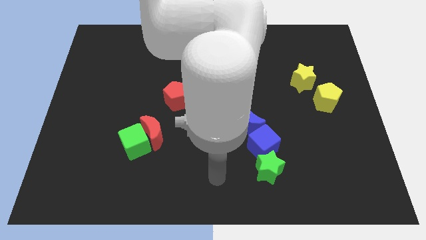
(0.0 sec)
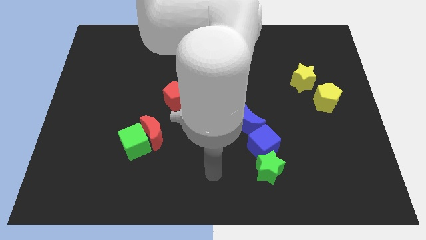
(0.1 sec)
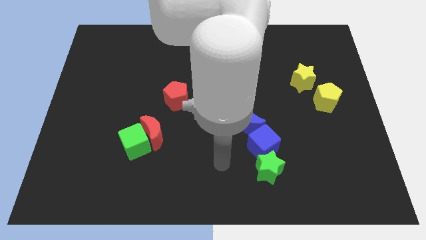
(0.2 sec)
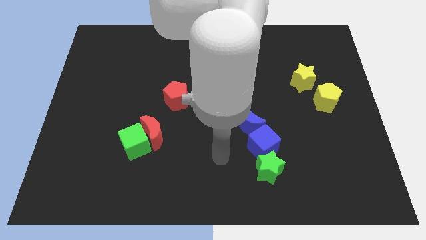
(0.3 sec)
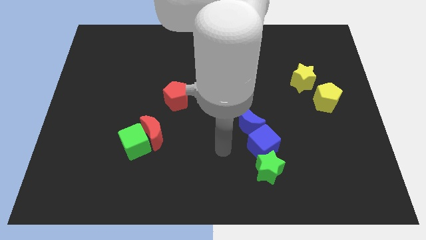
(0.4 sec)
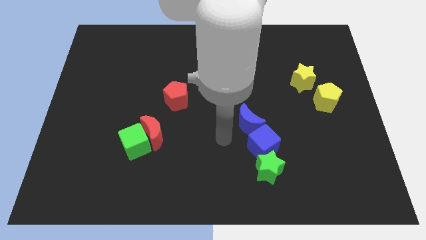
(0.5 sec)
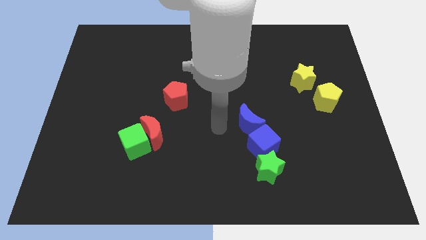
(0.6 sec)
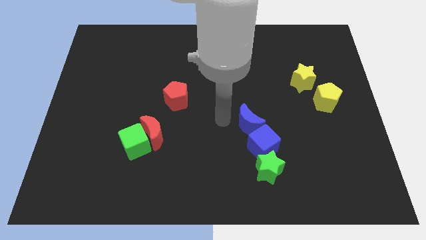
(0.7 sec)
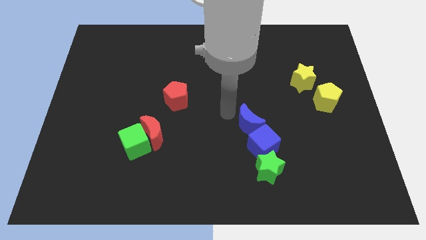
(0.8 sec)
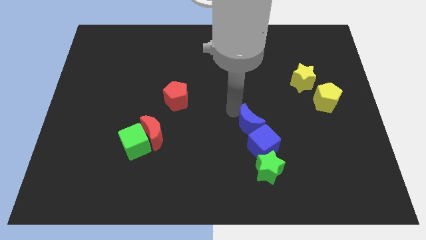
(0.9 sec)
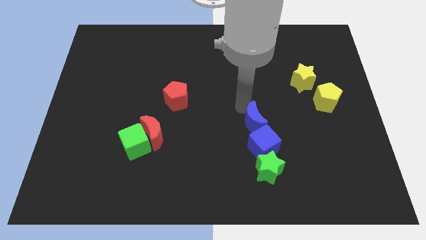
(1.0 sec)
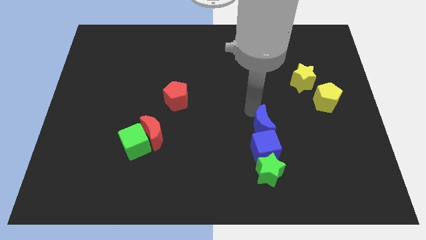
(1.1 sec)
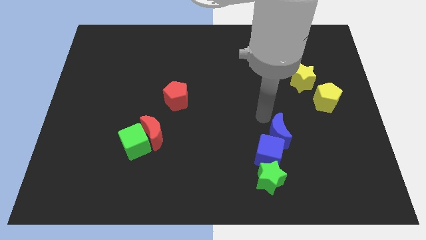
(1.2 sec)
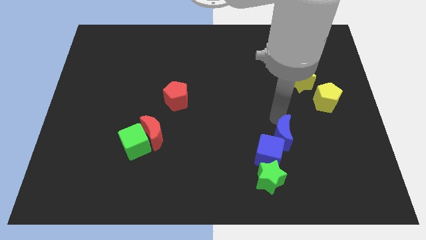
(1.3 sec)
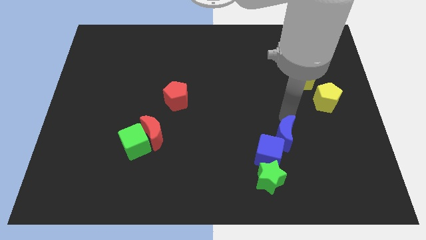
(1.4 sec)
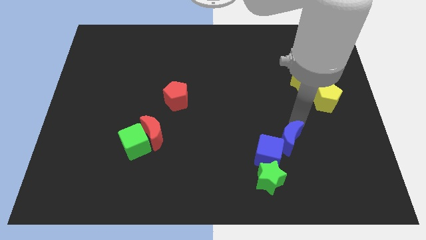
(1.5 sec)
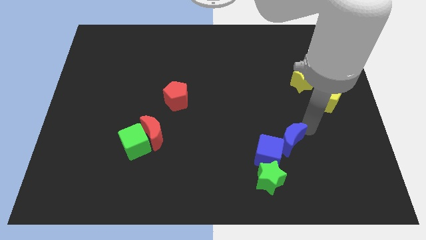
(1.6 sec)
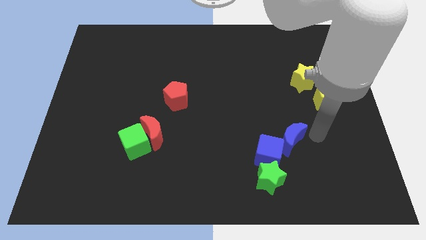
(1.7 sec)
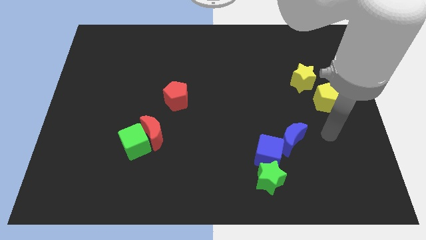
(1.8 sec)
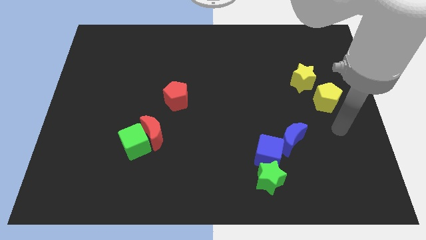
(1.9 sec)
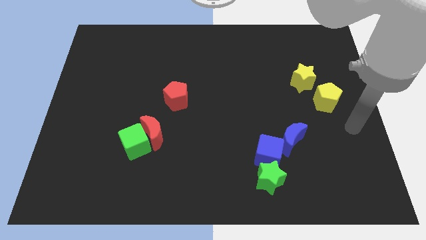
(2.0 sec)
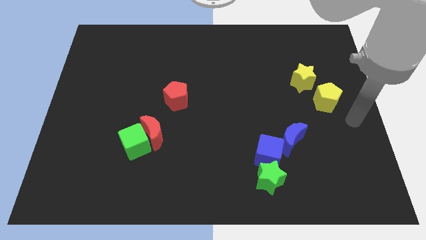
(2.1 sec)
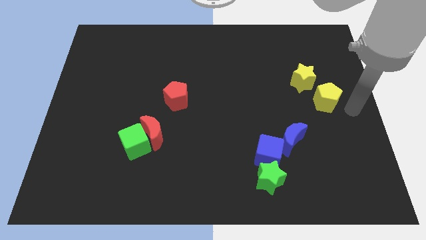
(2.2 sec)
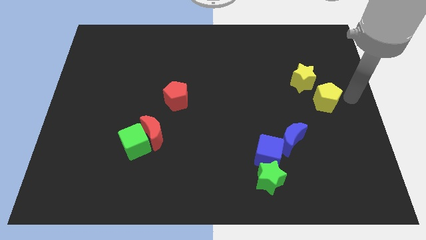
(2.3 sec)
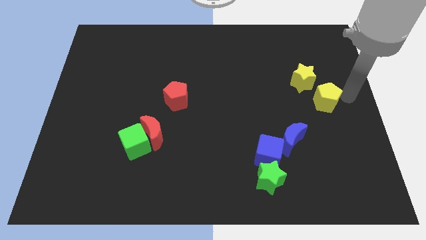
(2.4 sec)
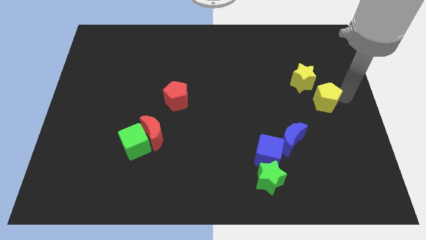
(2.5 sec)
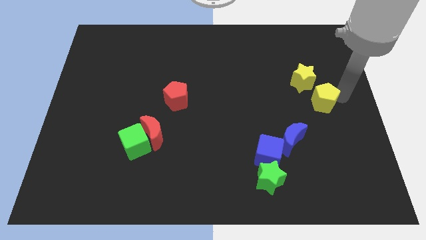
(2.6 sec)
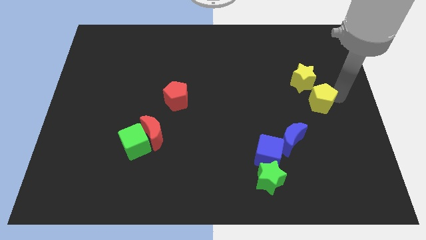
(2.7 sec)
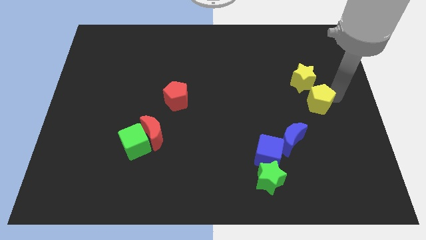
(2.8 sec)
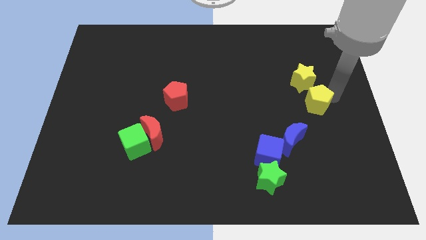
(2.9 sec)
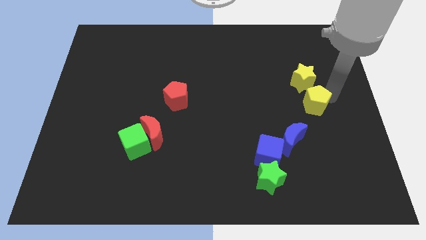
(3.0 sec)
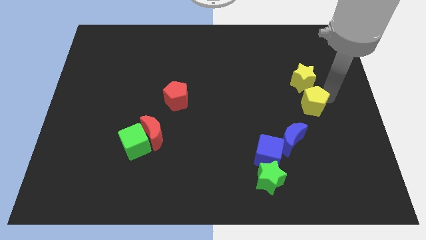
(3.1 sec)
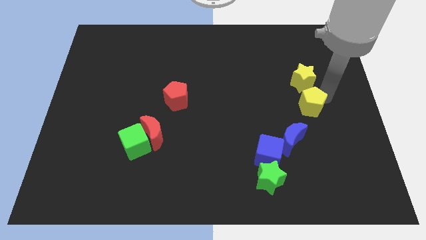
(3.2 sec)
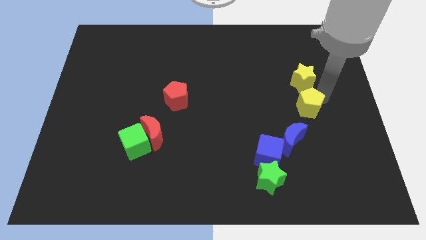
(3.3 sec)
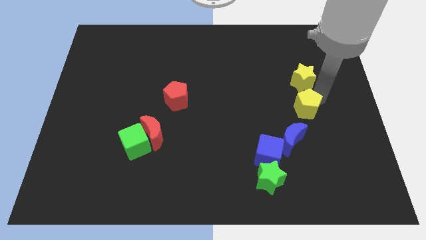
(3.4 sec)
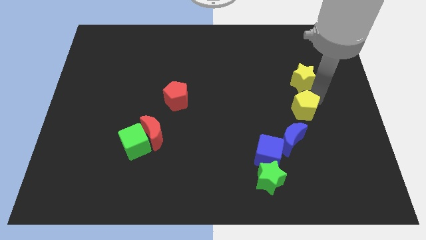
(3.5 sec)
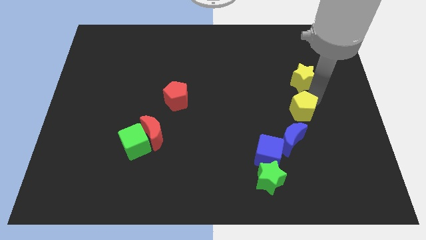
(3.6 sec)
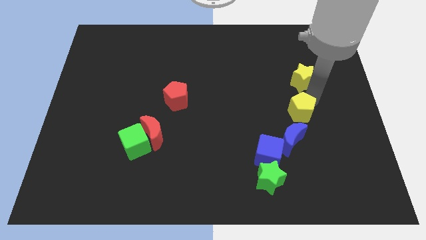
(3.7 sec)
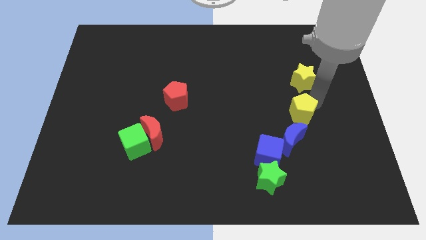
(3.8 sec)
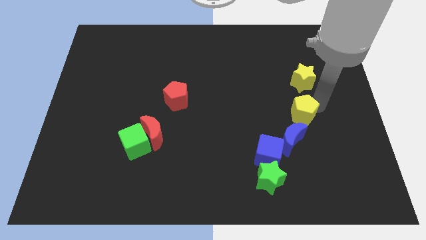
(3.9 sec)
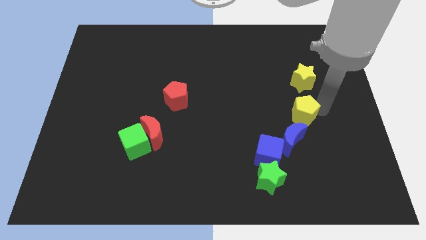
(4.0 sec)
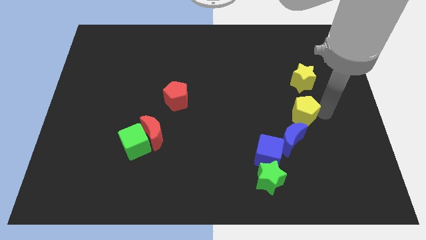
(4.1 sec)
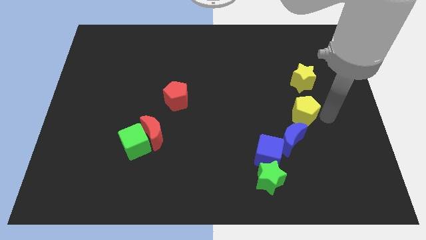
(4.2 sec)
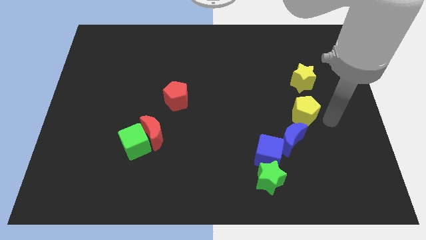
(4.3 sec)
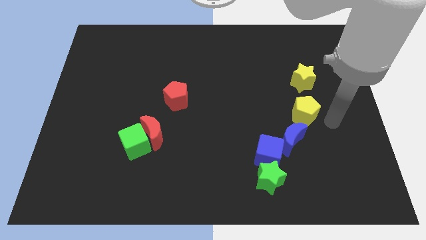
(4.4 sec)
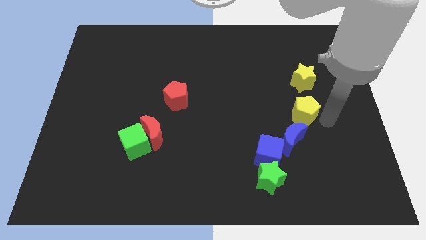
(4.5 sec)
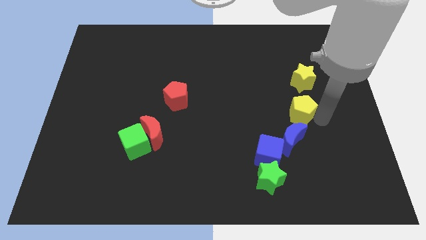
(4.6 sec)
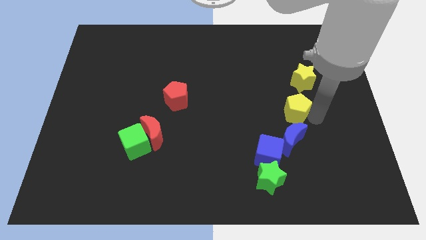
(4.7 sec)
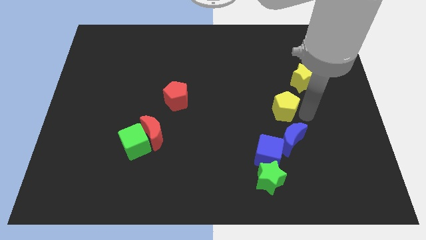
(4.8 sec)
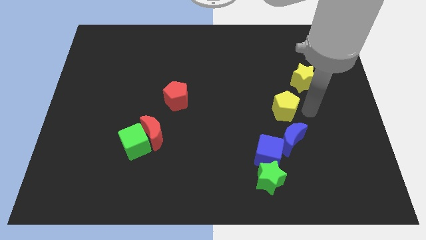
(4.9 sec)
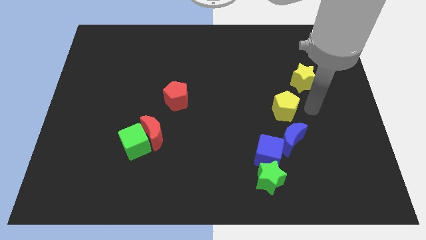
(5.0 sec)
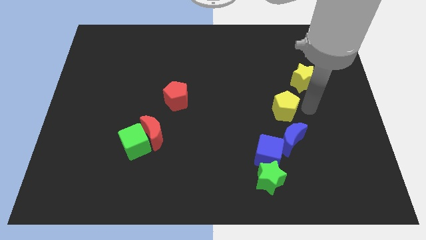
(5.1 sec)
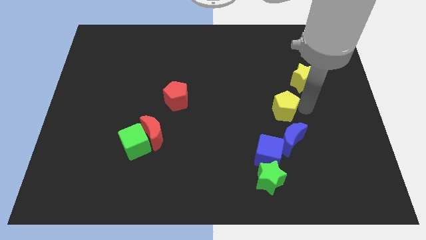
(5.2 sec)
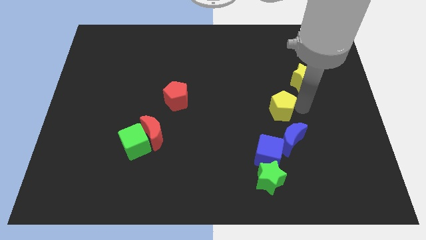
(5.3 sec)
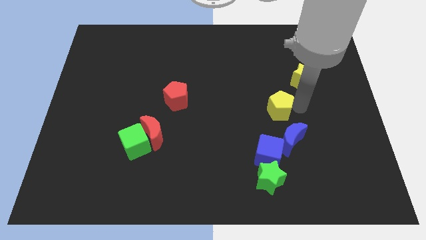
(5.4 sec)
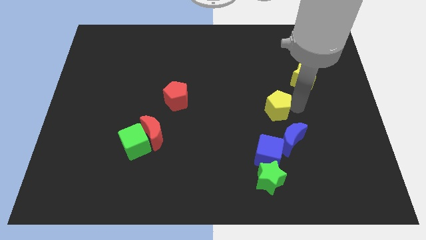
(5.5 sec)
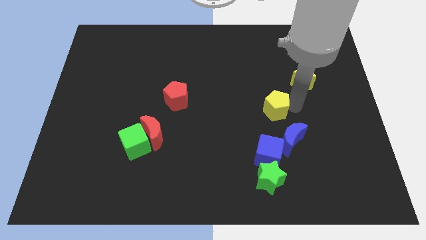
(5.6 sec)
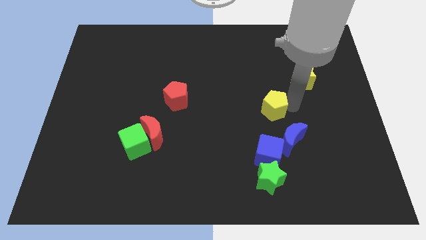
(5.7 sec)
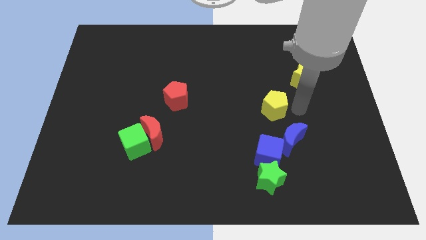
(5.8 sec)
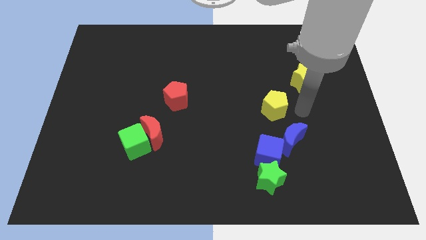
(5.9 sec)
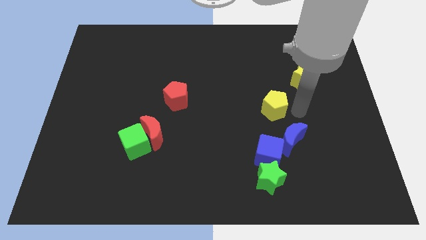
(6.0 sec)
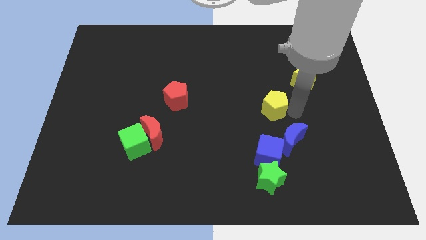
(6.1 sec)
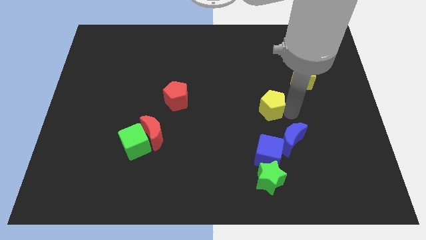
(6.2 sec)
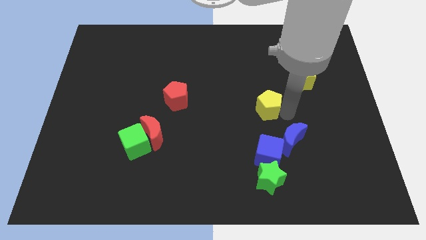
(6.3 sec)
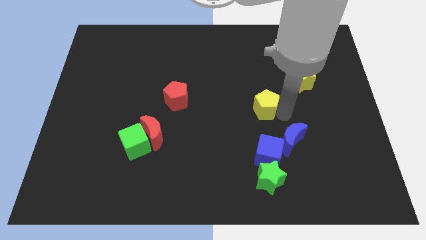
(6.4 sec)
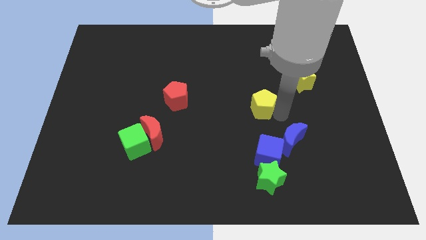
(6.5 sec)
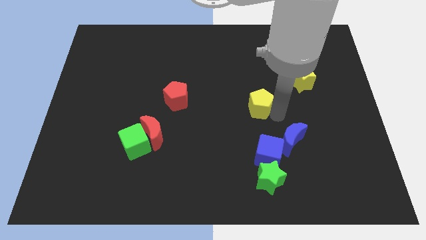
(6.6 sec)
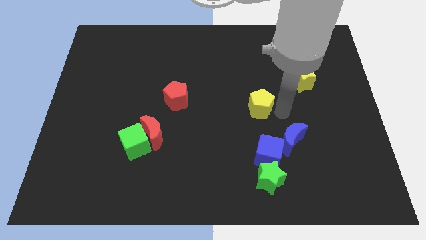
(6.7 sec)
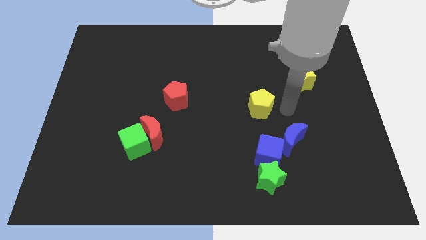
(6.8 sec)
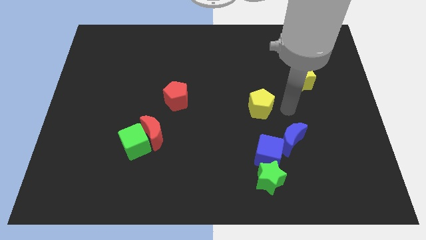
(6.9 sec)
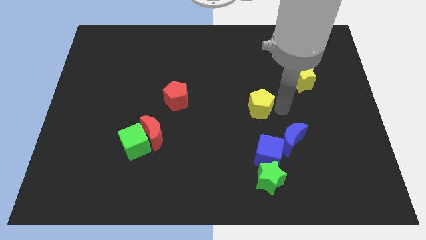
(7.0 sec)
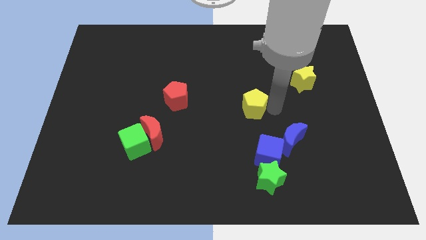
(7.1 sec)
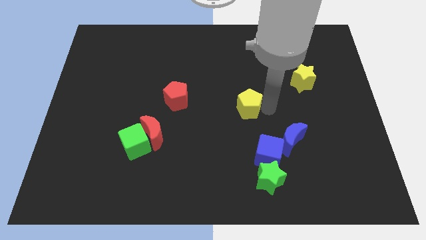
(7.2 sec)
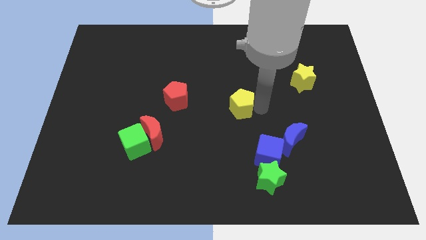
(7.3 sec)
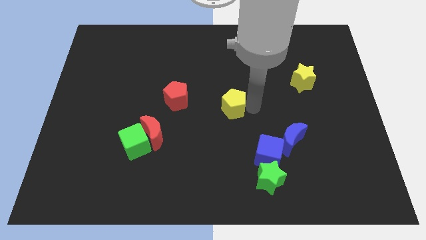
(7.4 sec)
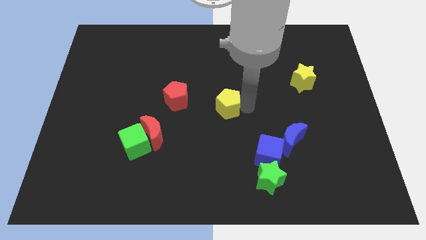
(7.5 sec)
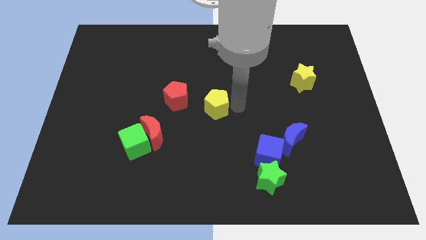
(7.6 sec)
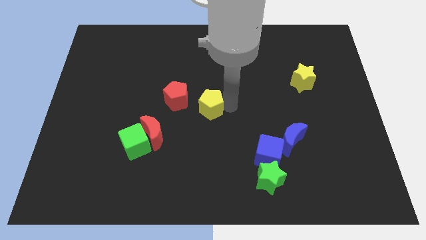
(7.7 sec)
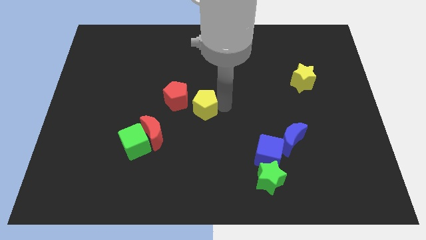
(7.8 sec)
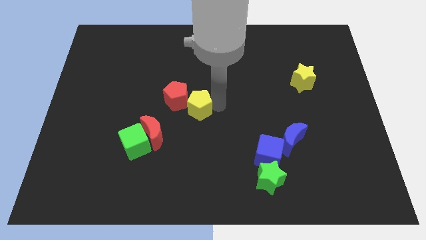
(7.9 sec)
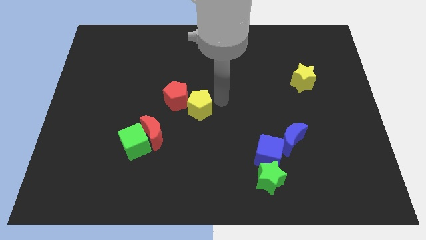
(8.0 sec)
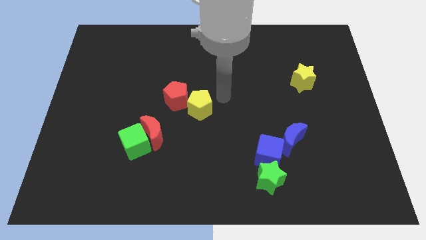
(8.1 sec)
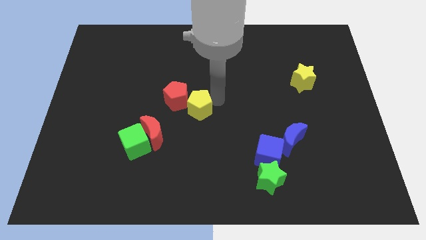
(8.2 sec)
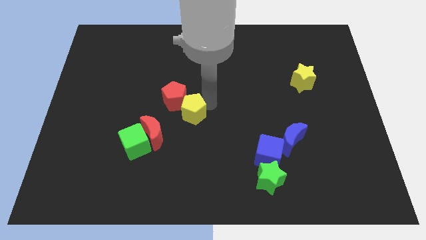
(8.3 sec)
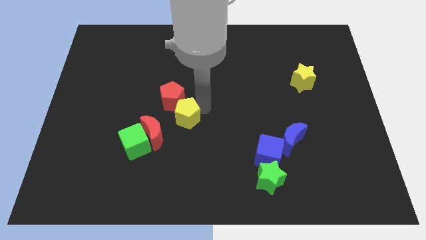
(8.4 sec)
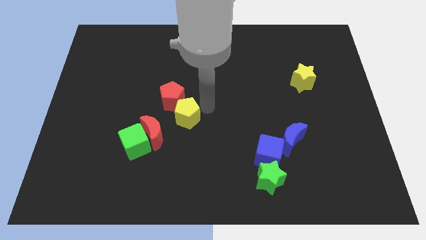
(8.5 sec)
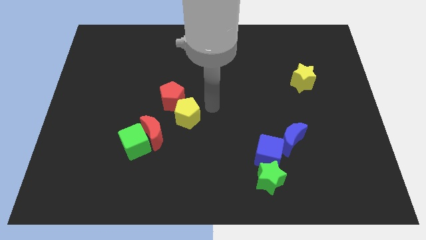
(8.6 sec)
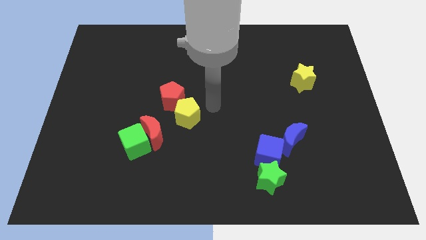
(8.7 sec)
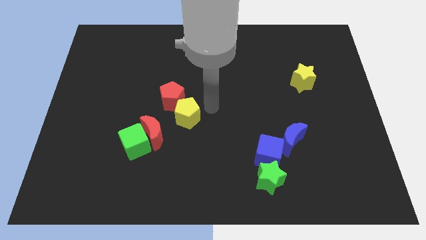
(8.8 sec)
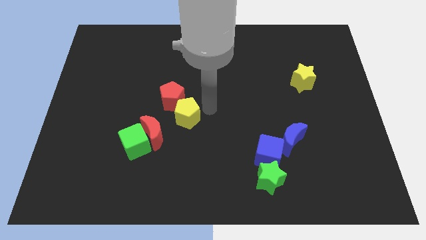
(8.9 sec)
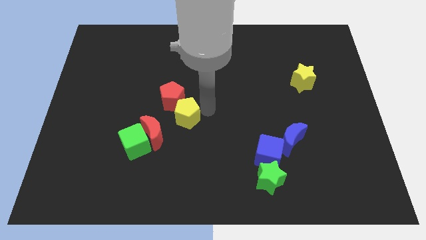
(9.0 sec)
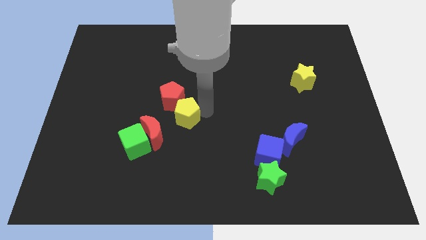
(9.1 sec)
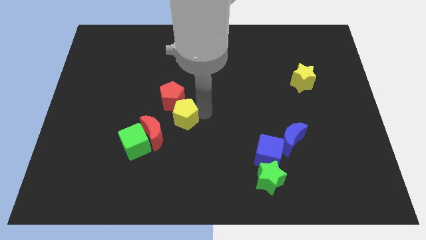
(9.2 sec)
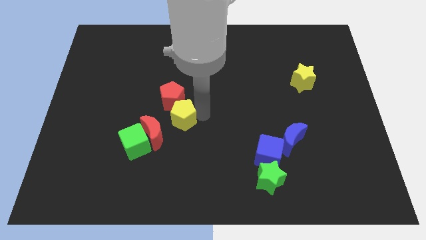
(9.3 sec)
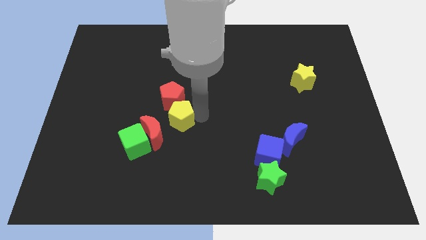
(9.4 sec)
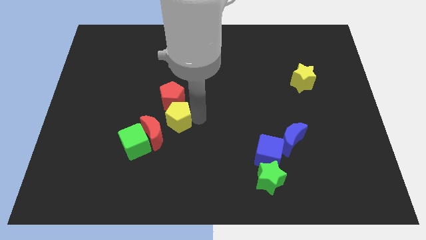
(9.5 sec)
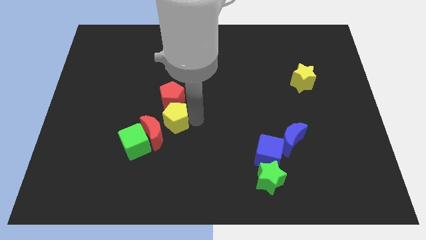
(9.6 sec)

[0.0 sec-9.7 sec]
push the yellow pentagon close to the red moon
